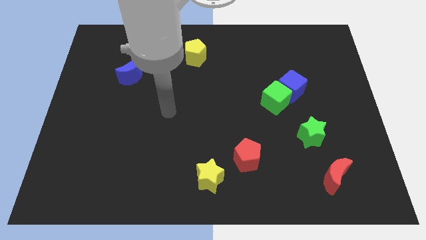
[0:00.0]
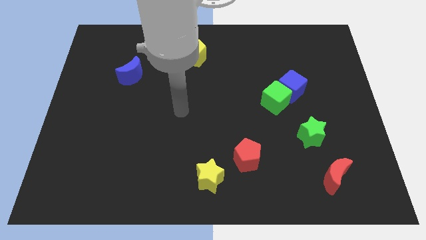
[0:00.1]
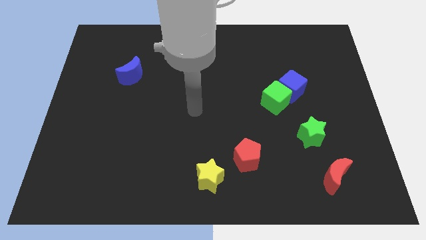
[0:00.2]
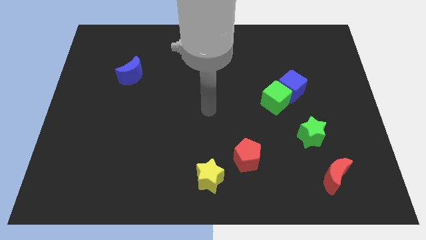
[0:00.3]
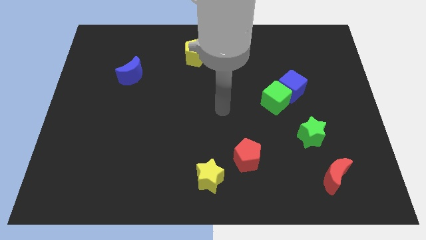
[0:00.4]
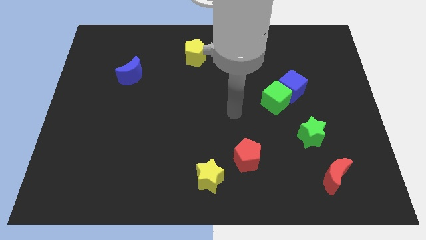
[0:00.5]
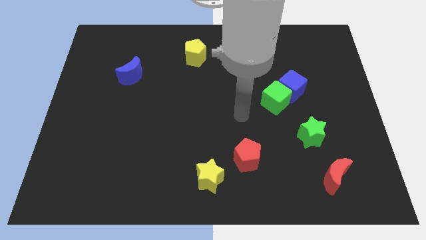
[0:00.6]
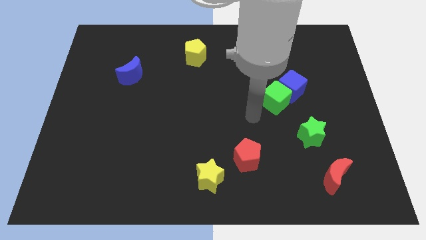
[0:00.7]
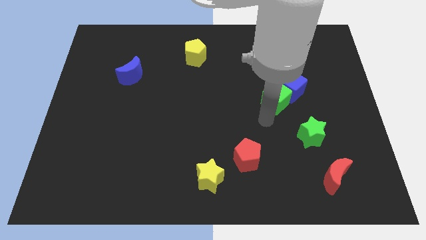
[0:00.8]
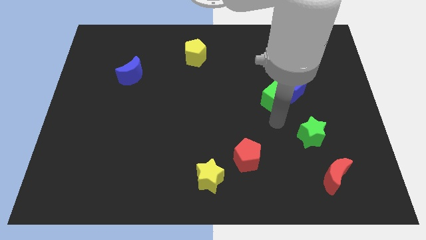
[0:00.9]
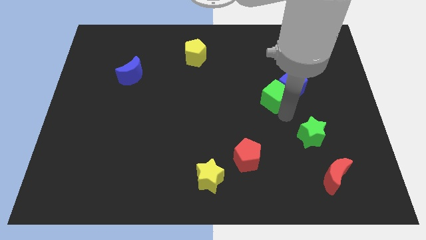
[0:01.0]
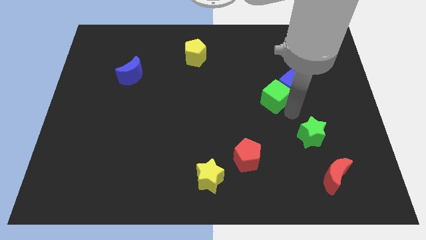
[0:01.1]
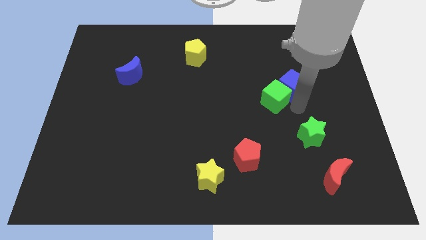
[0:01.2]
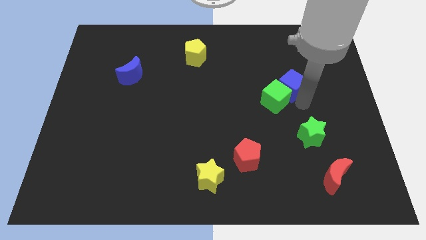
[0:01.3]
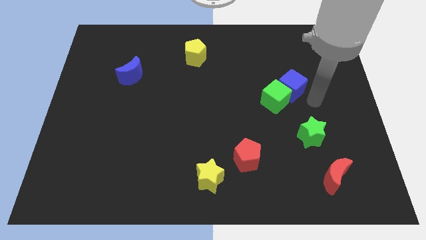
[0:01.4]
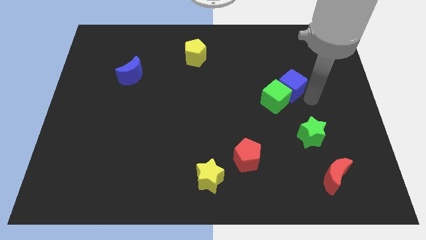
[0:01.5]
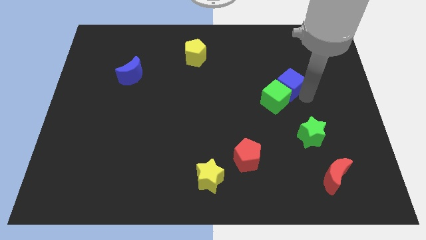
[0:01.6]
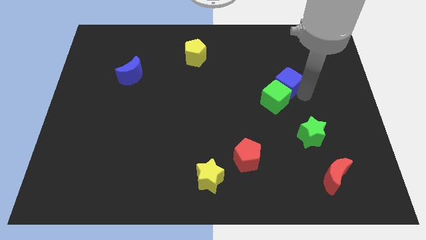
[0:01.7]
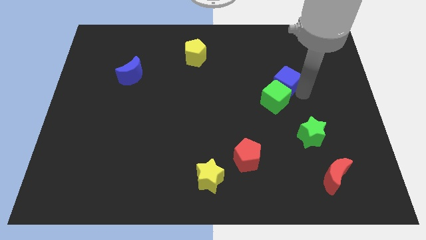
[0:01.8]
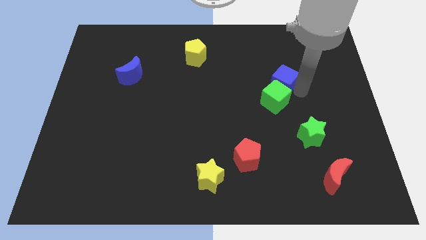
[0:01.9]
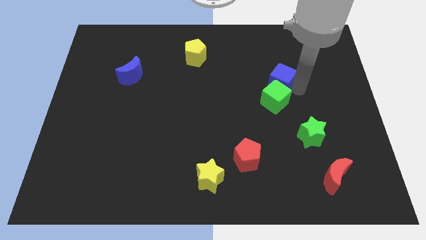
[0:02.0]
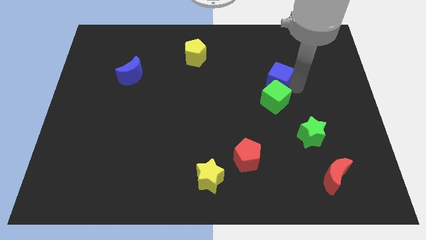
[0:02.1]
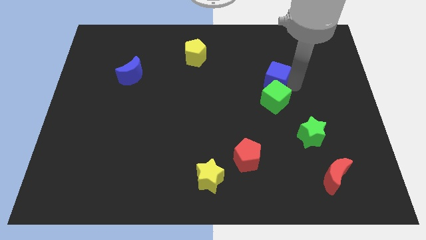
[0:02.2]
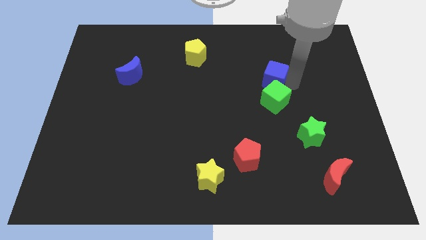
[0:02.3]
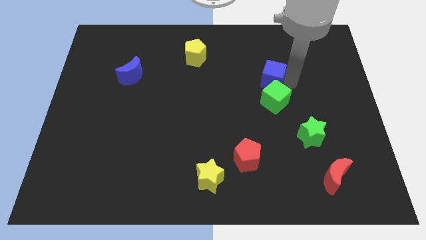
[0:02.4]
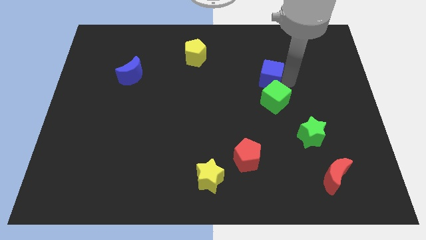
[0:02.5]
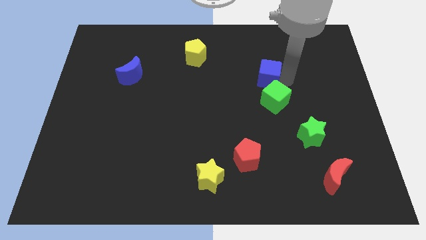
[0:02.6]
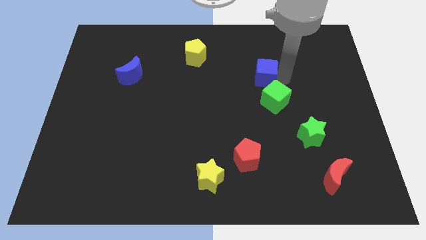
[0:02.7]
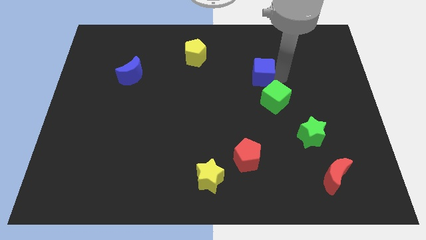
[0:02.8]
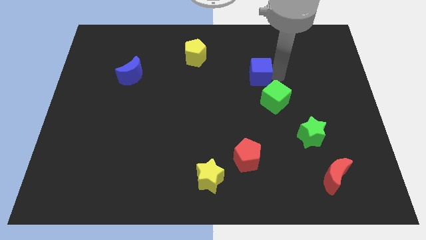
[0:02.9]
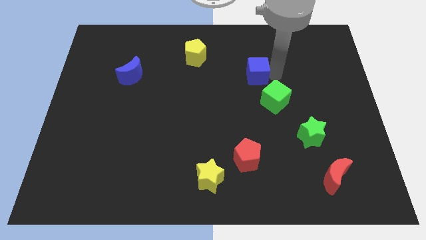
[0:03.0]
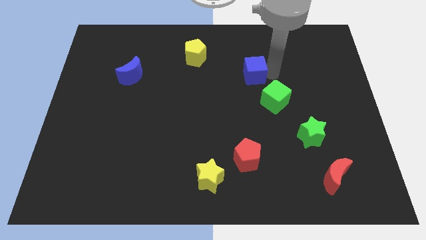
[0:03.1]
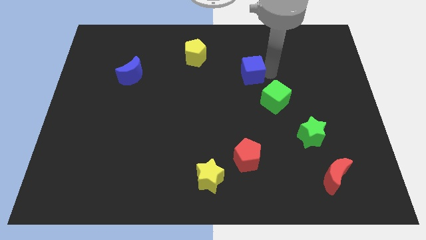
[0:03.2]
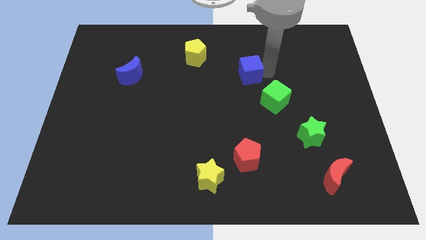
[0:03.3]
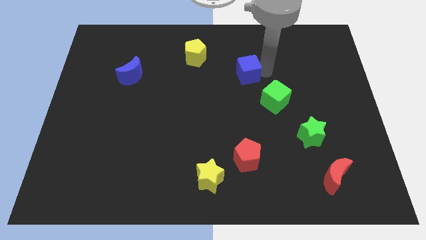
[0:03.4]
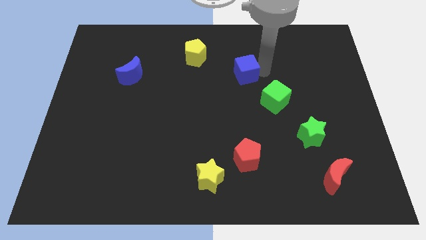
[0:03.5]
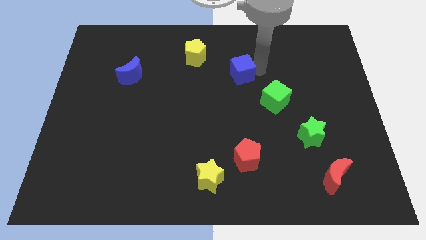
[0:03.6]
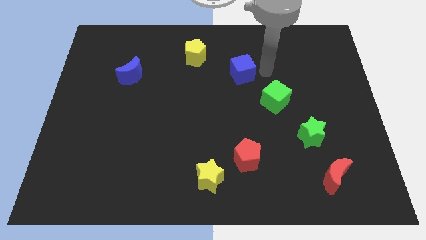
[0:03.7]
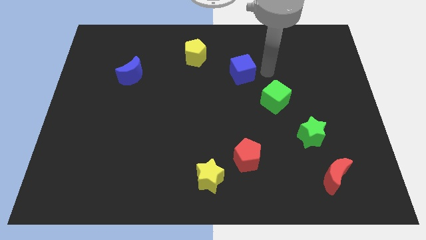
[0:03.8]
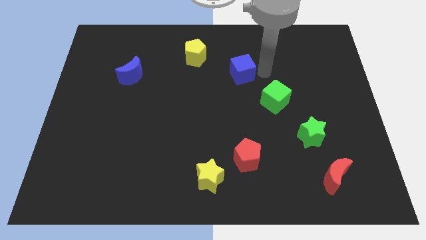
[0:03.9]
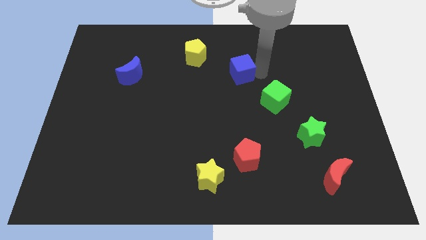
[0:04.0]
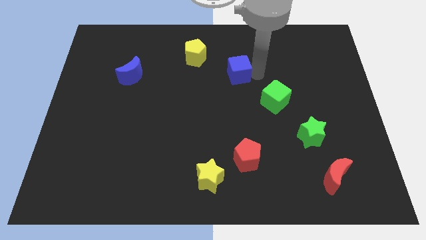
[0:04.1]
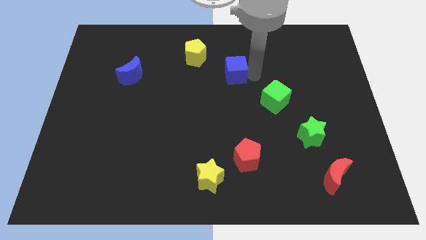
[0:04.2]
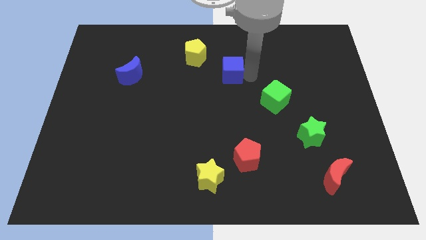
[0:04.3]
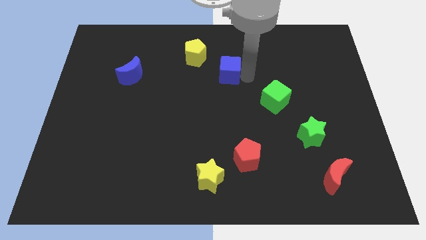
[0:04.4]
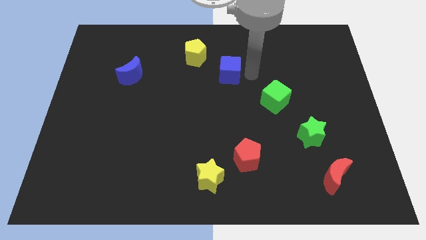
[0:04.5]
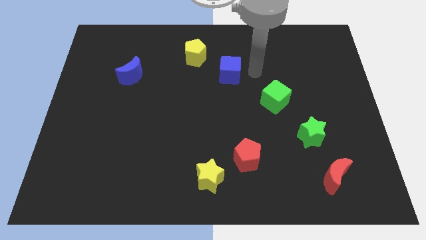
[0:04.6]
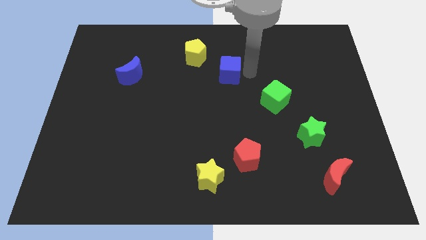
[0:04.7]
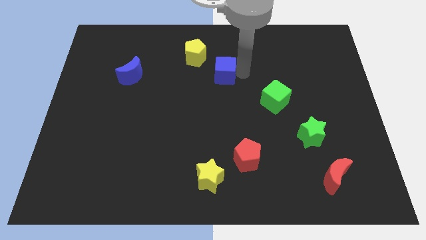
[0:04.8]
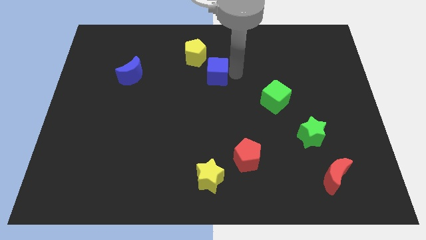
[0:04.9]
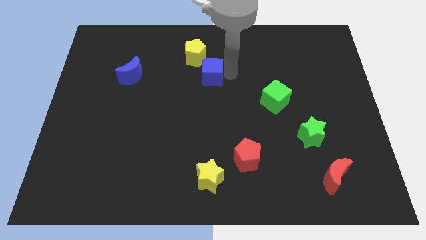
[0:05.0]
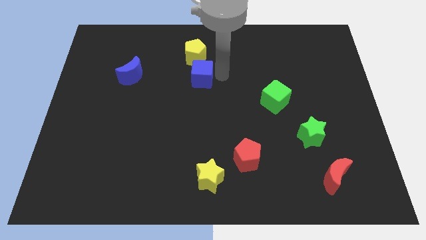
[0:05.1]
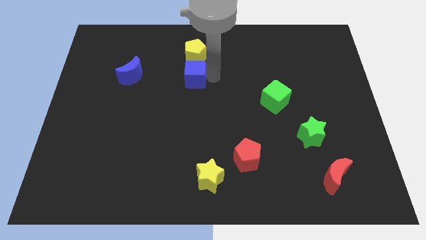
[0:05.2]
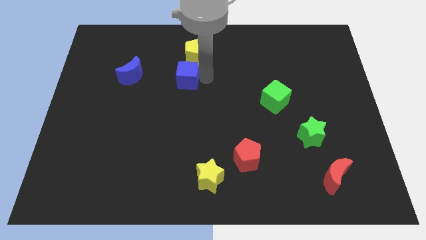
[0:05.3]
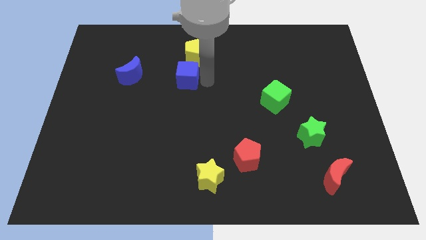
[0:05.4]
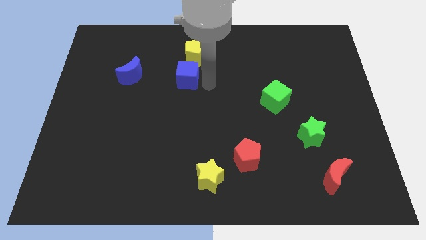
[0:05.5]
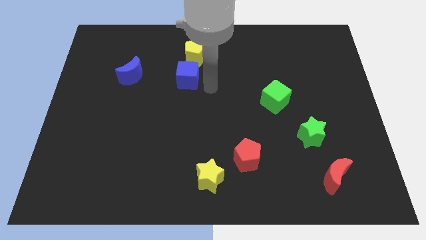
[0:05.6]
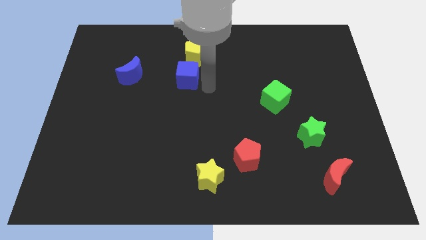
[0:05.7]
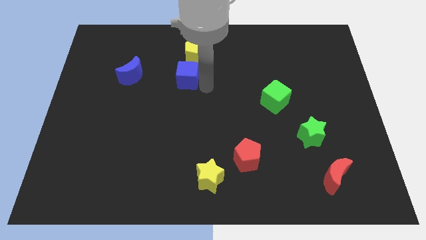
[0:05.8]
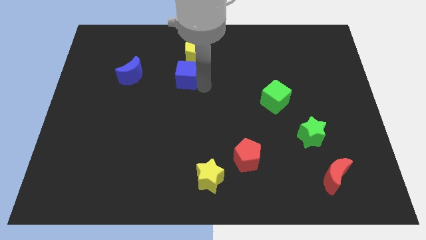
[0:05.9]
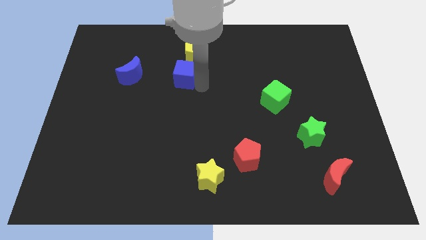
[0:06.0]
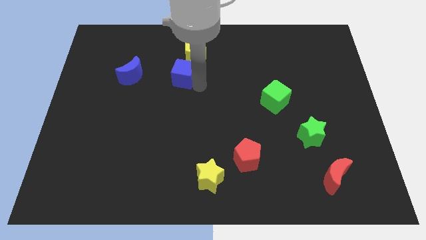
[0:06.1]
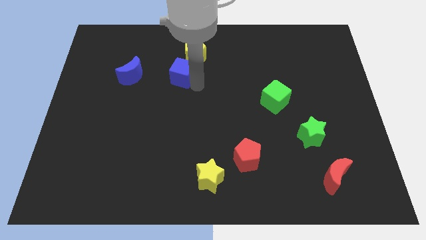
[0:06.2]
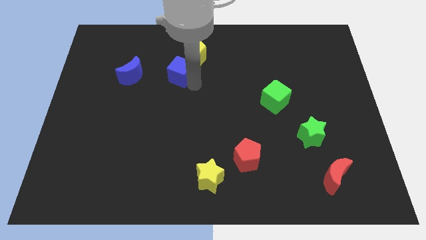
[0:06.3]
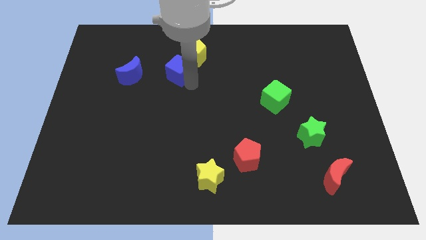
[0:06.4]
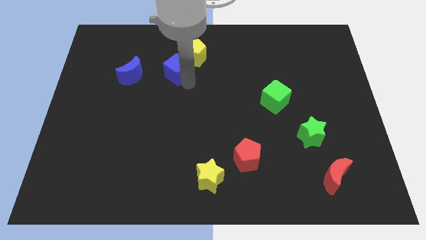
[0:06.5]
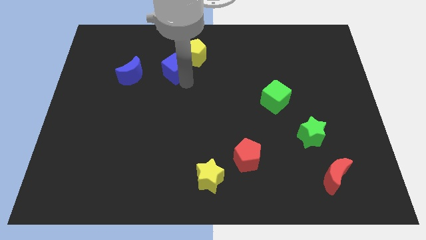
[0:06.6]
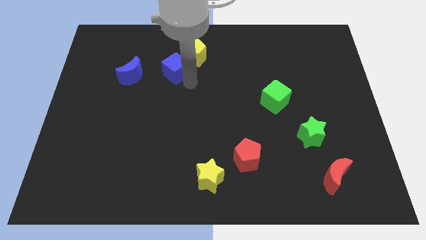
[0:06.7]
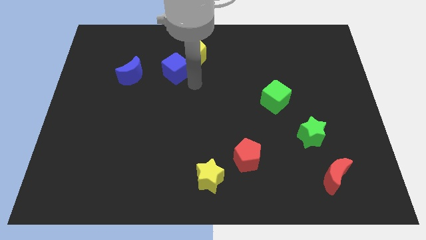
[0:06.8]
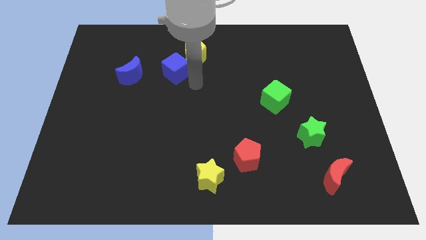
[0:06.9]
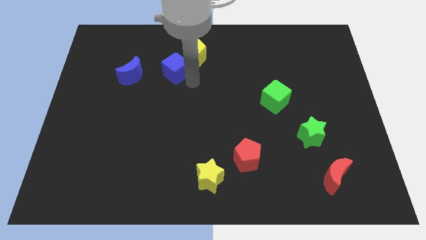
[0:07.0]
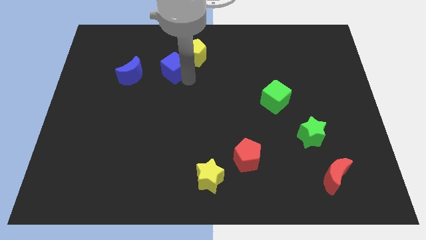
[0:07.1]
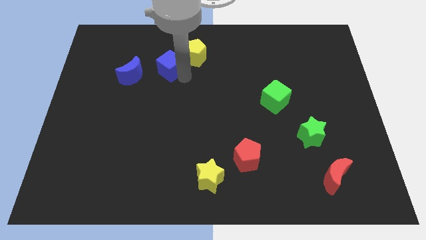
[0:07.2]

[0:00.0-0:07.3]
push the blue cube left of the yellow pentagon
